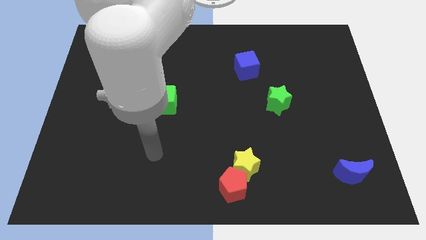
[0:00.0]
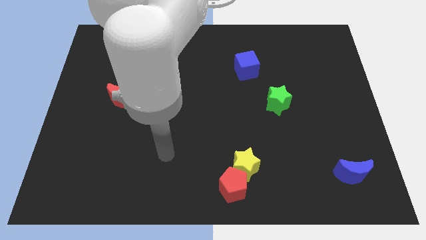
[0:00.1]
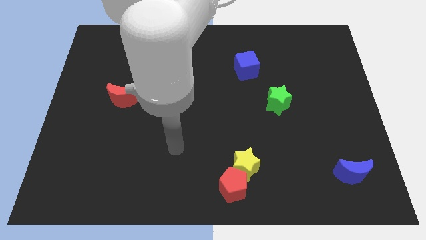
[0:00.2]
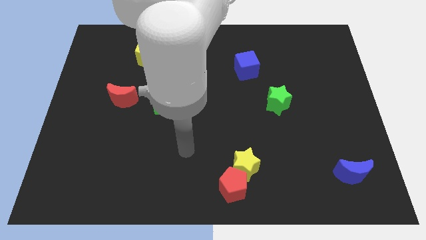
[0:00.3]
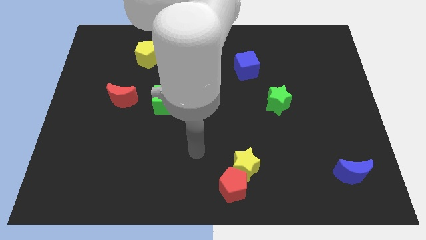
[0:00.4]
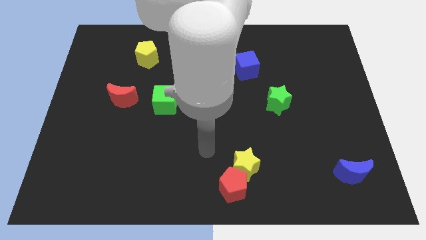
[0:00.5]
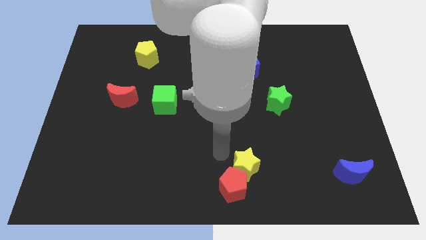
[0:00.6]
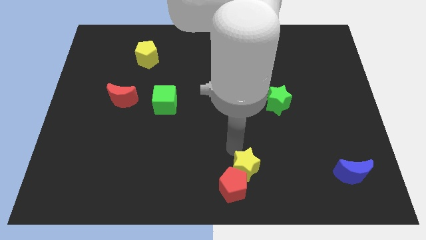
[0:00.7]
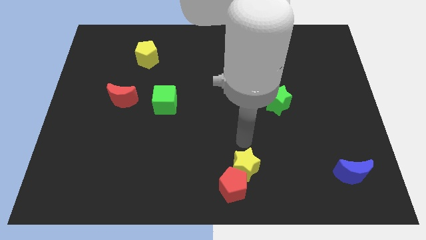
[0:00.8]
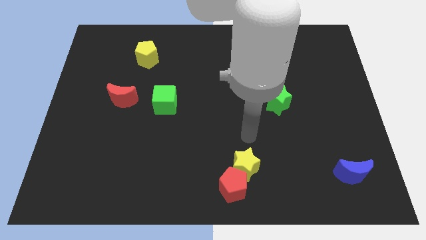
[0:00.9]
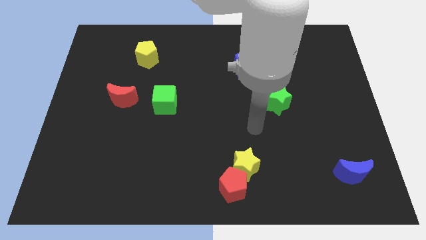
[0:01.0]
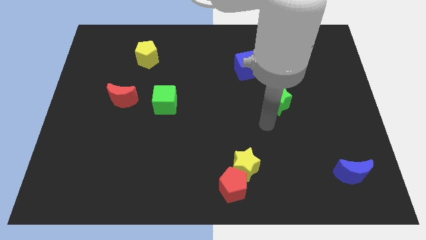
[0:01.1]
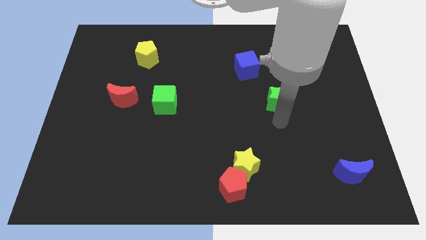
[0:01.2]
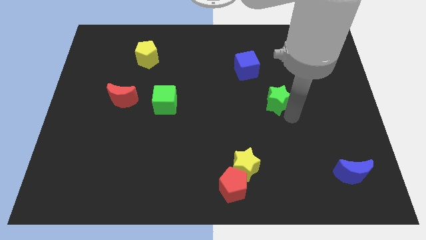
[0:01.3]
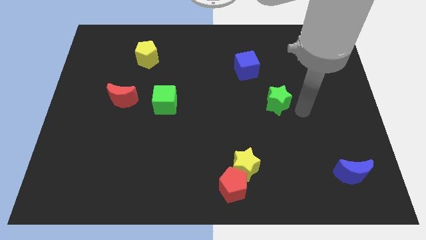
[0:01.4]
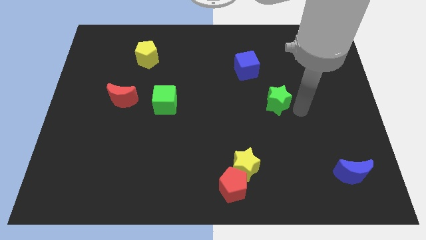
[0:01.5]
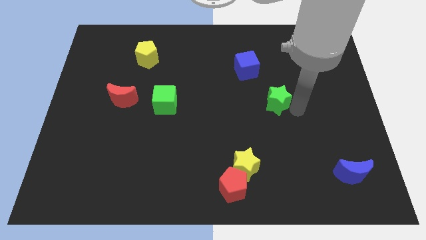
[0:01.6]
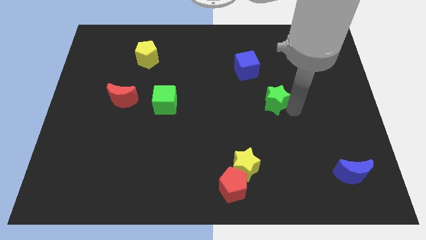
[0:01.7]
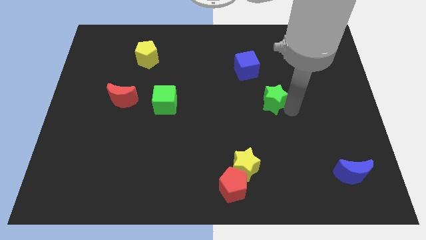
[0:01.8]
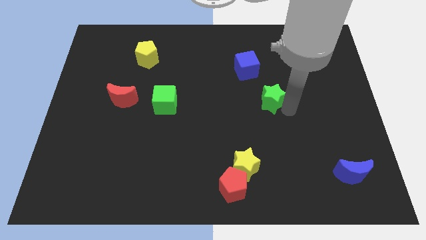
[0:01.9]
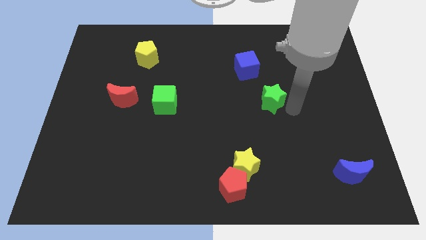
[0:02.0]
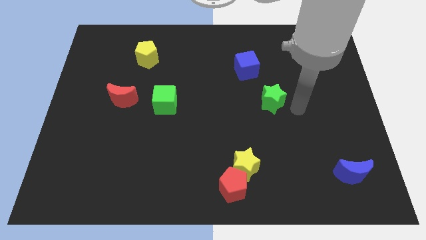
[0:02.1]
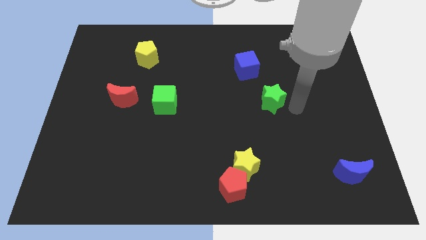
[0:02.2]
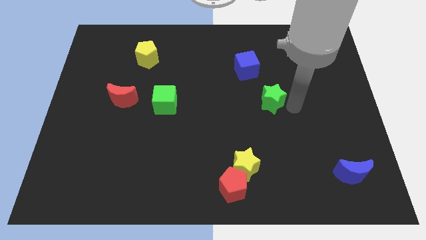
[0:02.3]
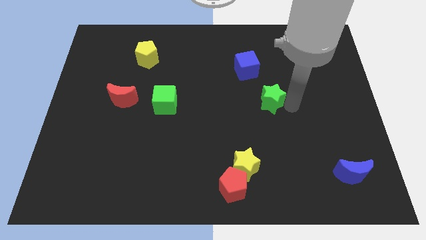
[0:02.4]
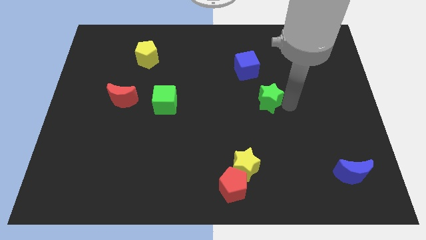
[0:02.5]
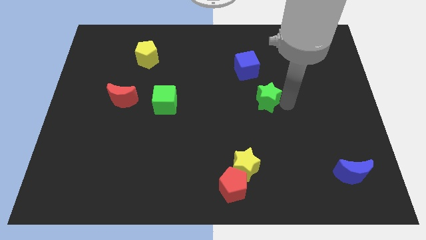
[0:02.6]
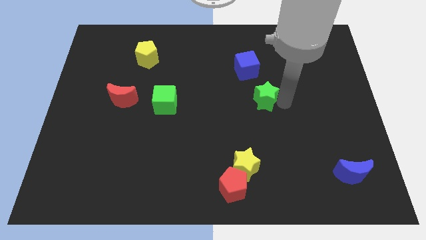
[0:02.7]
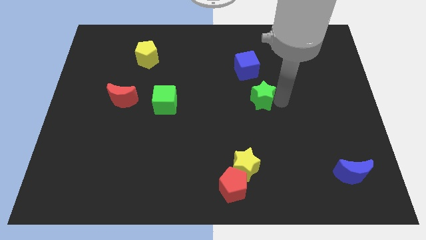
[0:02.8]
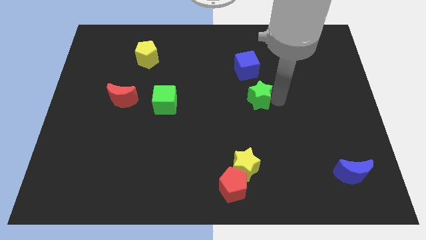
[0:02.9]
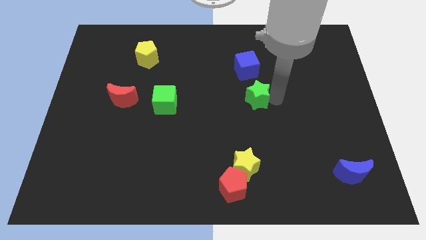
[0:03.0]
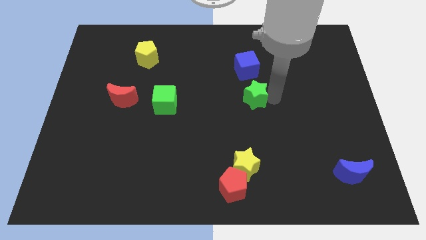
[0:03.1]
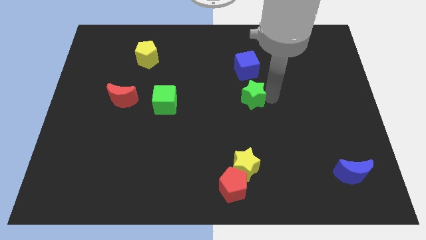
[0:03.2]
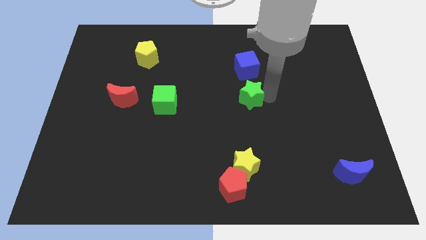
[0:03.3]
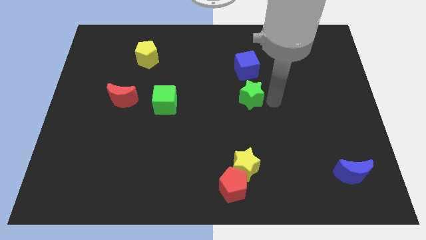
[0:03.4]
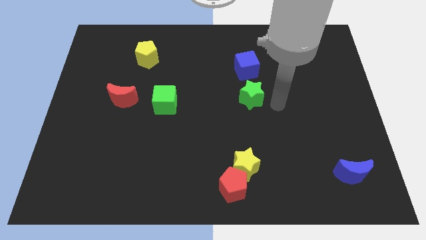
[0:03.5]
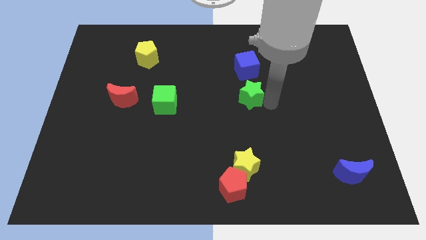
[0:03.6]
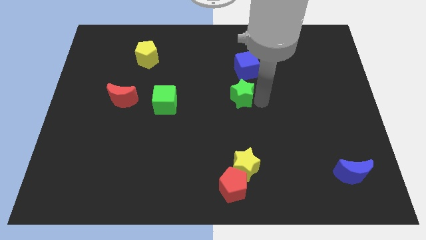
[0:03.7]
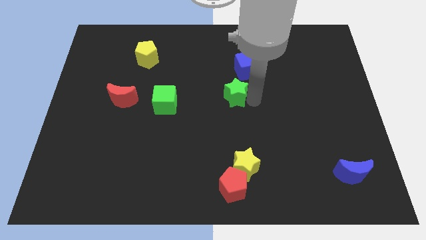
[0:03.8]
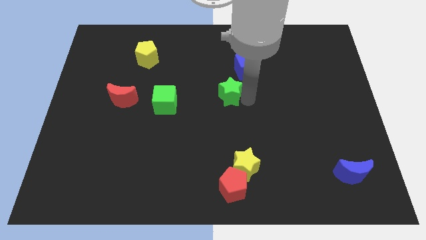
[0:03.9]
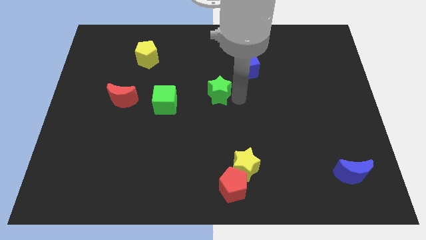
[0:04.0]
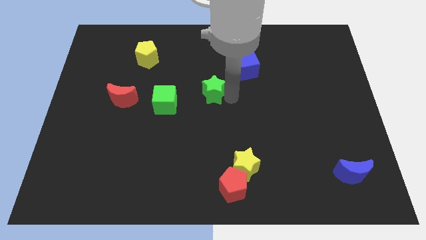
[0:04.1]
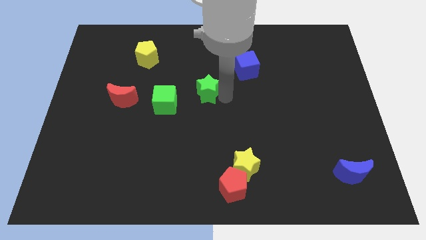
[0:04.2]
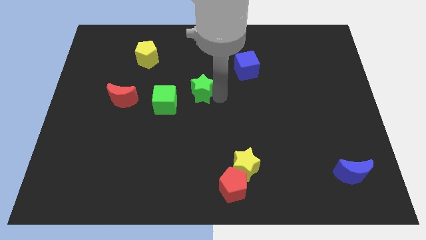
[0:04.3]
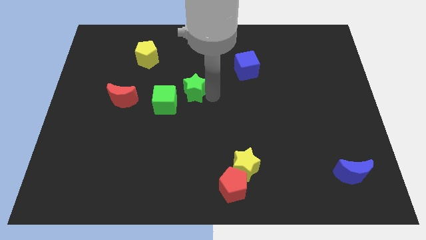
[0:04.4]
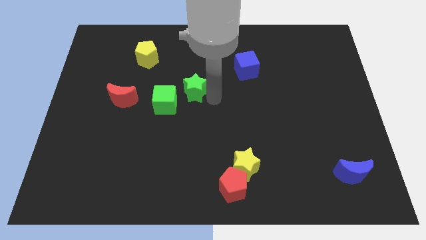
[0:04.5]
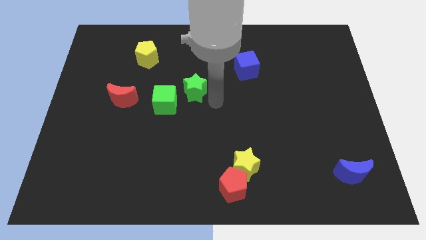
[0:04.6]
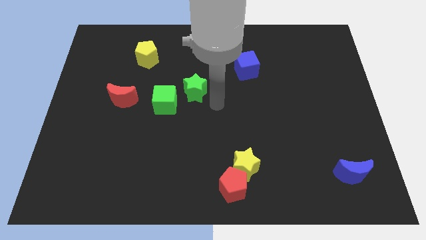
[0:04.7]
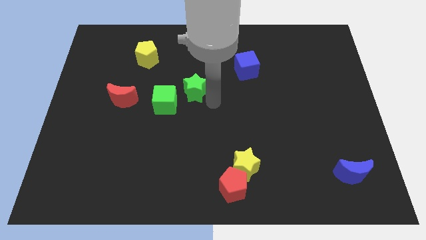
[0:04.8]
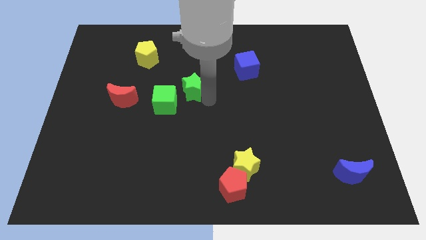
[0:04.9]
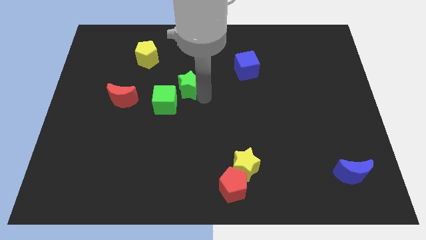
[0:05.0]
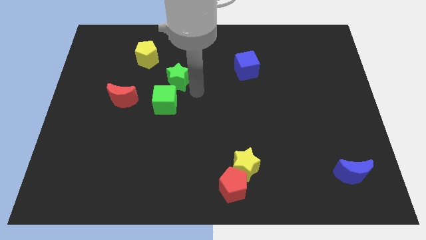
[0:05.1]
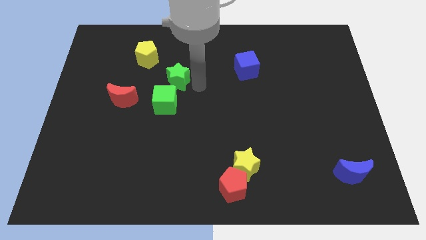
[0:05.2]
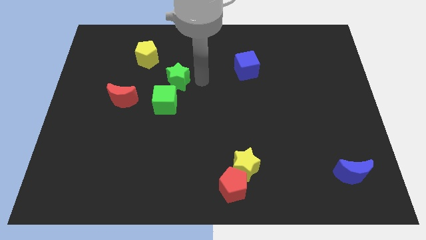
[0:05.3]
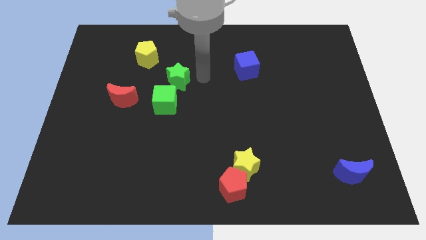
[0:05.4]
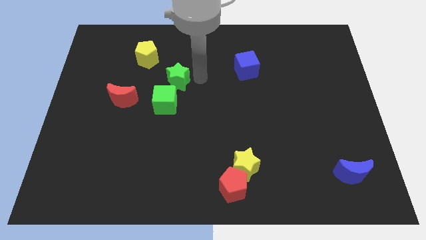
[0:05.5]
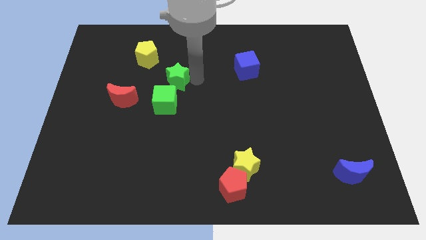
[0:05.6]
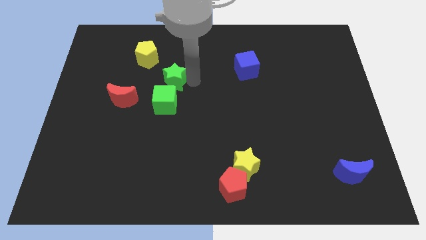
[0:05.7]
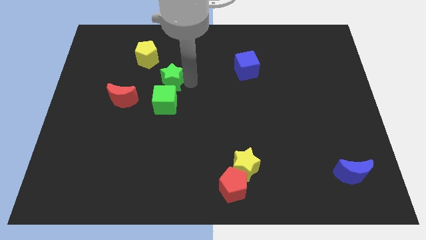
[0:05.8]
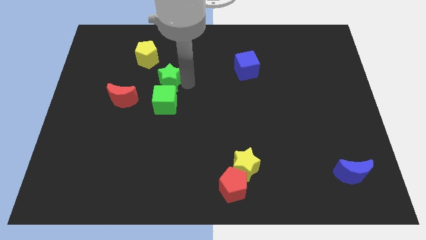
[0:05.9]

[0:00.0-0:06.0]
slide the green star to the top left side of the green cube

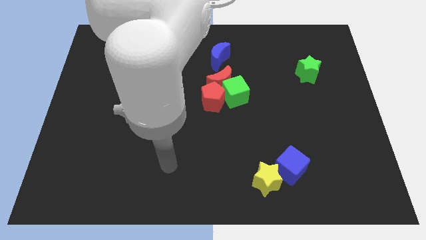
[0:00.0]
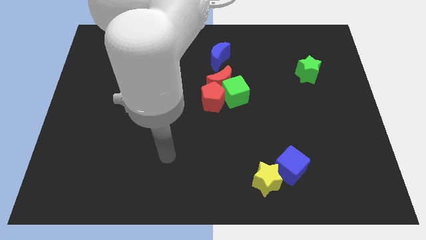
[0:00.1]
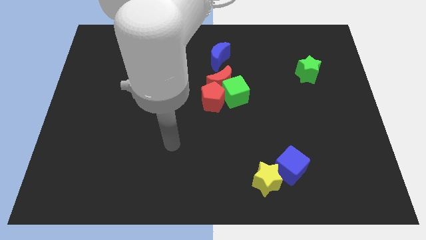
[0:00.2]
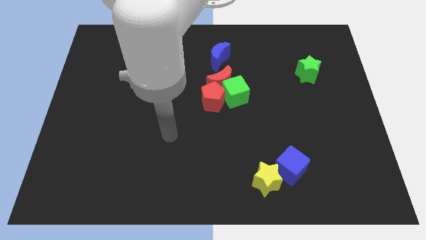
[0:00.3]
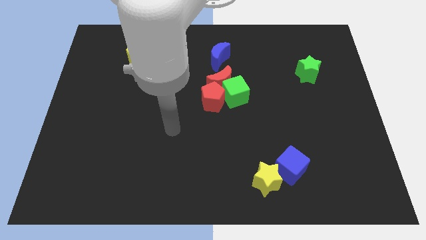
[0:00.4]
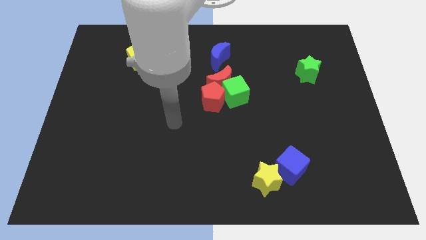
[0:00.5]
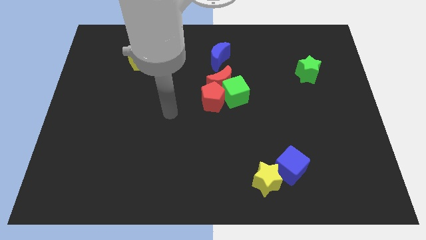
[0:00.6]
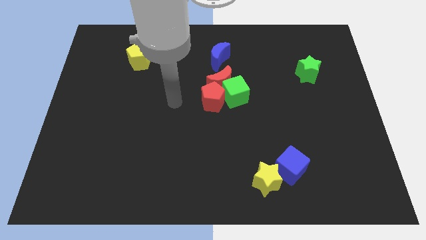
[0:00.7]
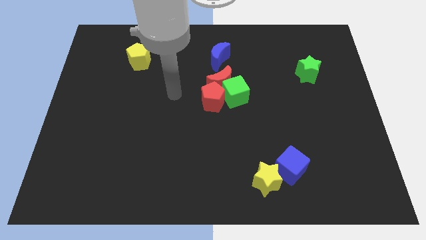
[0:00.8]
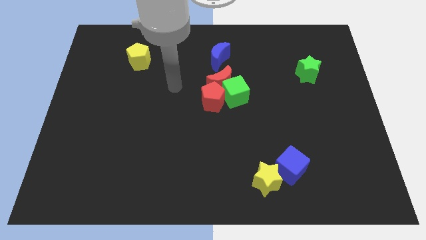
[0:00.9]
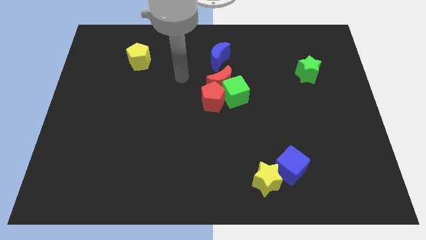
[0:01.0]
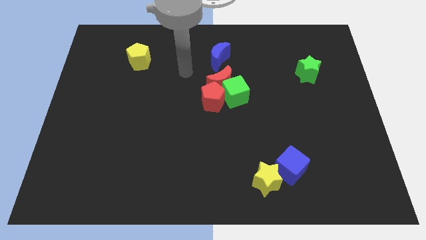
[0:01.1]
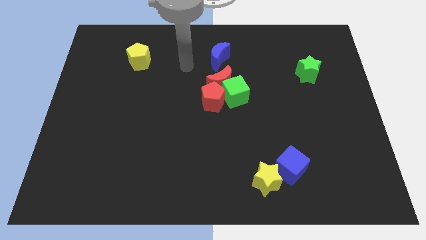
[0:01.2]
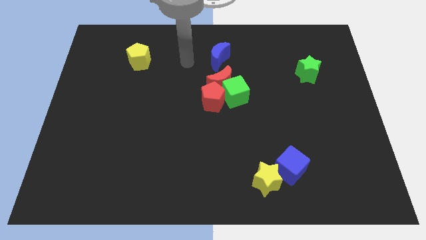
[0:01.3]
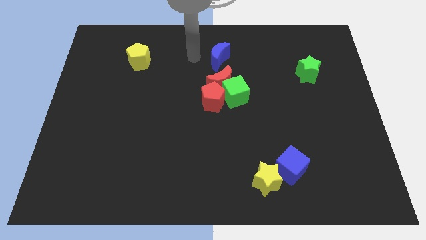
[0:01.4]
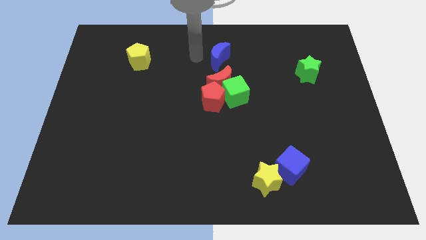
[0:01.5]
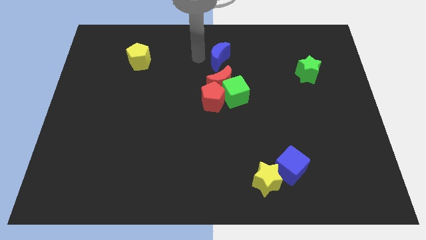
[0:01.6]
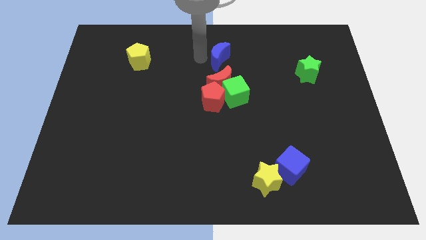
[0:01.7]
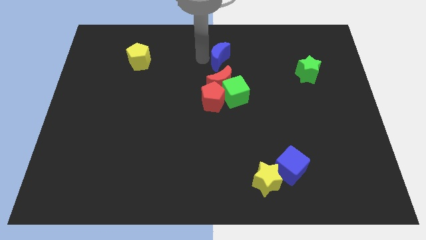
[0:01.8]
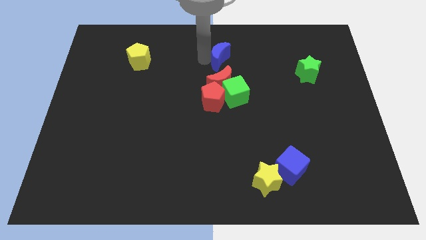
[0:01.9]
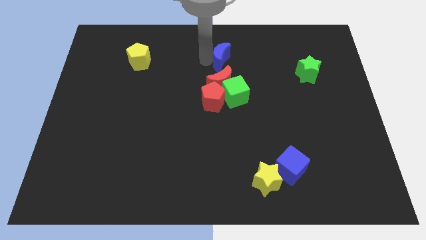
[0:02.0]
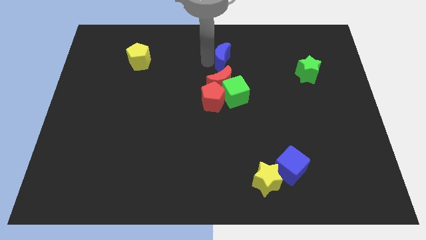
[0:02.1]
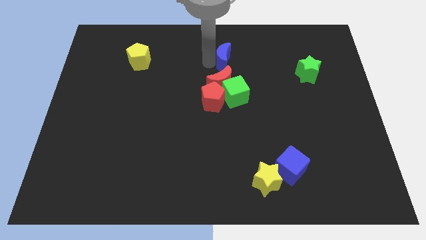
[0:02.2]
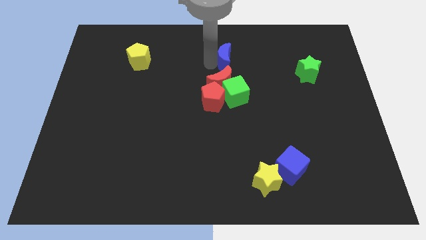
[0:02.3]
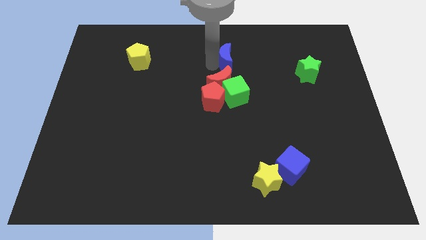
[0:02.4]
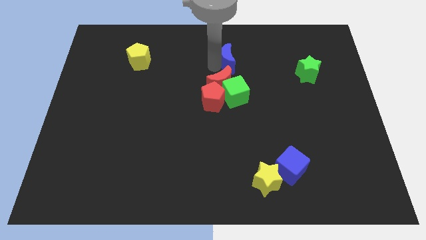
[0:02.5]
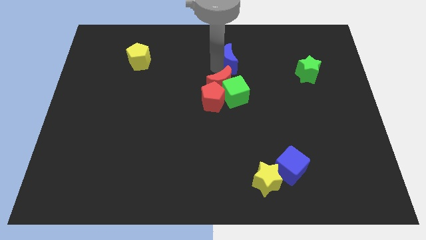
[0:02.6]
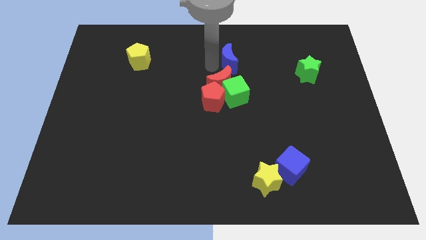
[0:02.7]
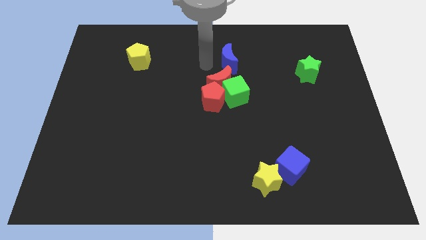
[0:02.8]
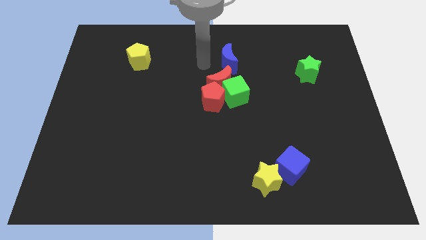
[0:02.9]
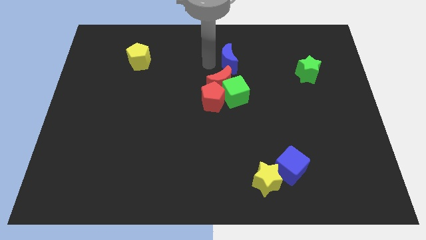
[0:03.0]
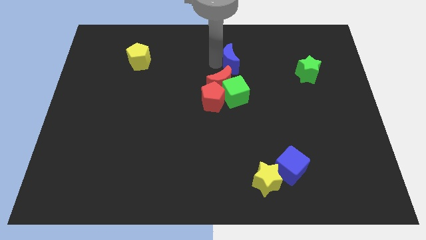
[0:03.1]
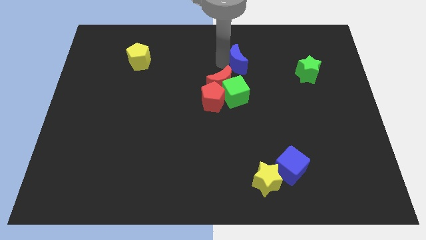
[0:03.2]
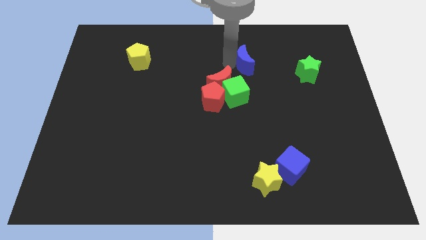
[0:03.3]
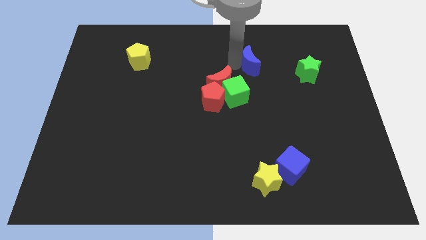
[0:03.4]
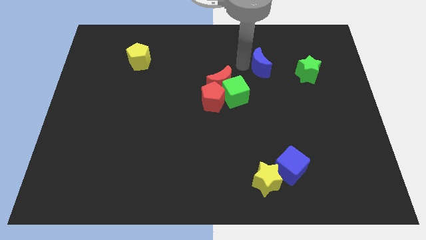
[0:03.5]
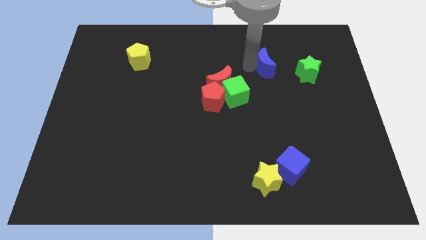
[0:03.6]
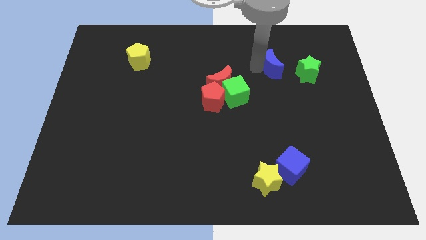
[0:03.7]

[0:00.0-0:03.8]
slide the blue moon to the top left of the green star
